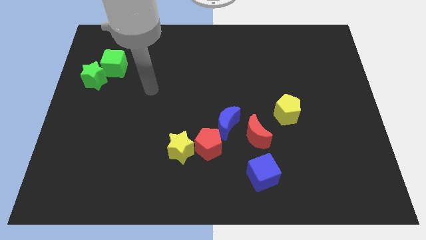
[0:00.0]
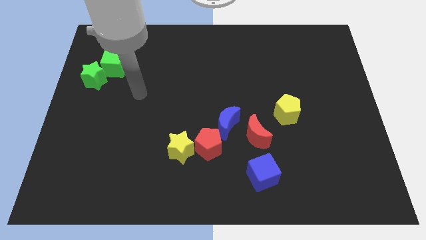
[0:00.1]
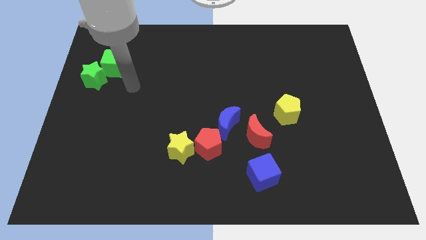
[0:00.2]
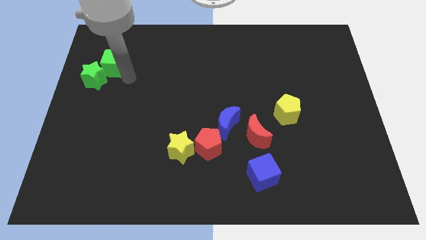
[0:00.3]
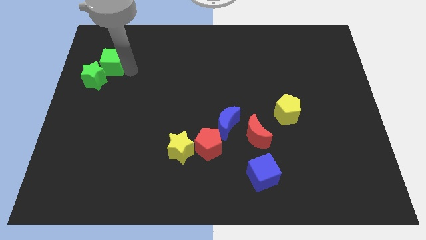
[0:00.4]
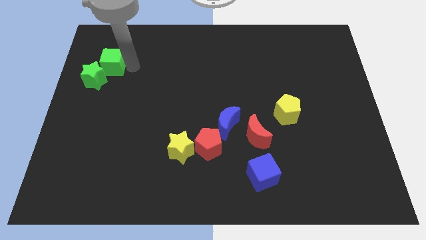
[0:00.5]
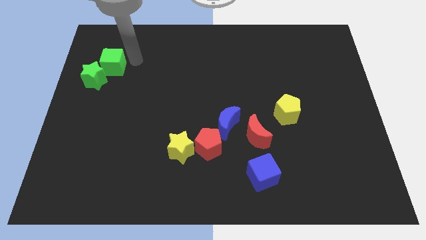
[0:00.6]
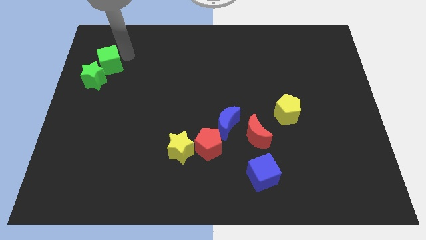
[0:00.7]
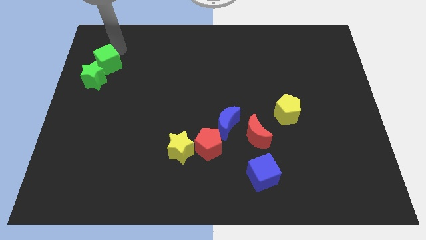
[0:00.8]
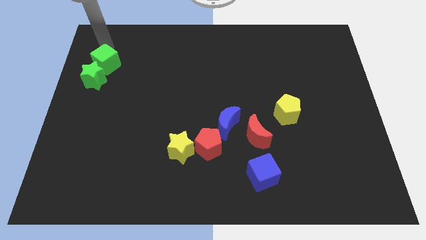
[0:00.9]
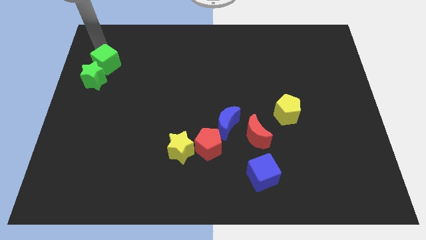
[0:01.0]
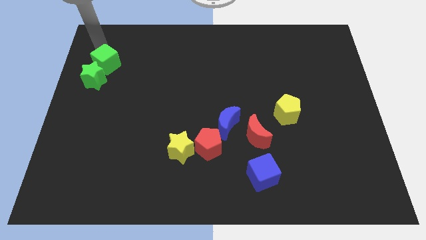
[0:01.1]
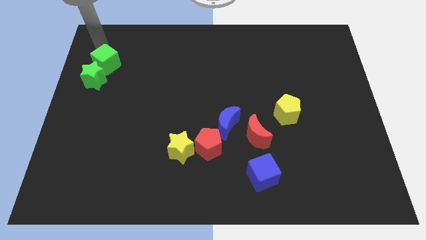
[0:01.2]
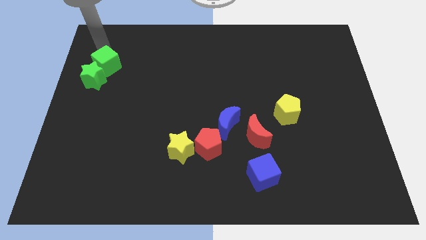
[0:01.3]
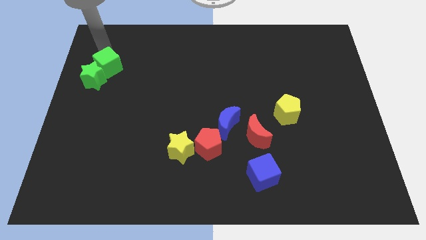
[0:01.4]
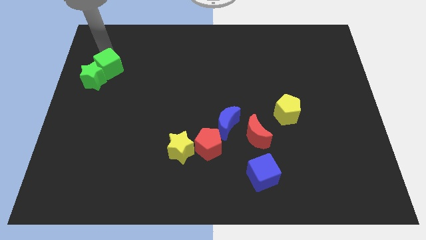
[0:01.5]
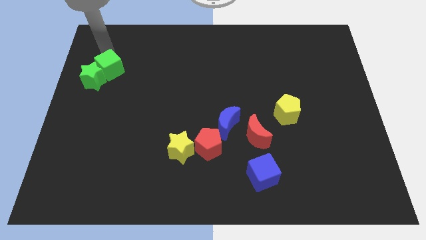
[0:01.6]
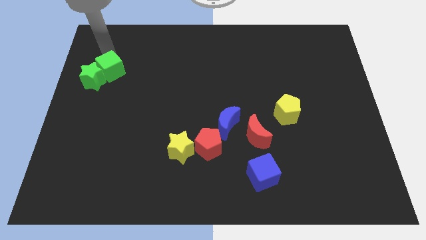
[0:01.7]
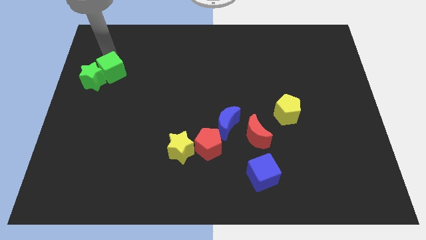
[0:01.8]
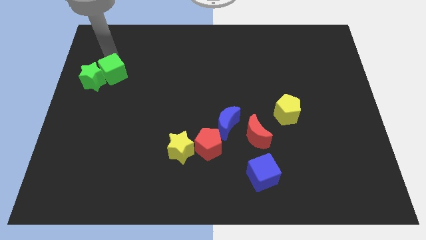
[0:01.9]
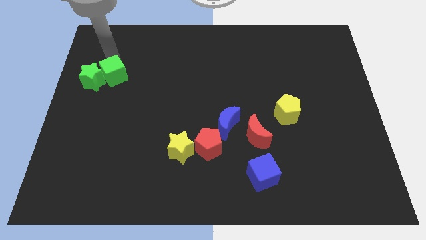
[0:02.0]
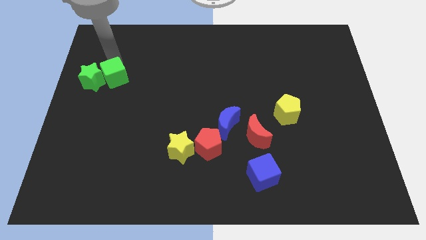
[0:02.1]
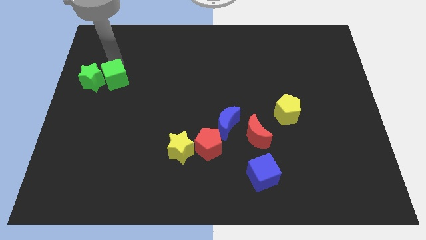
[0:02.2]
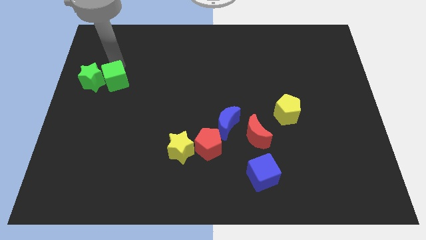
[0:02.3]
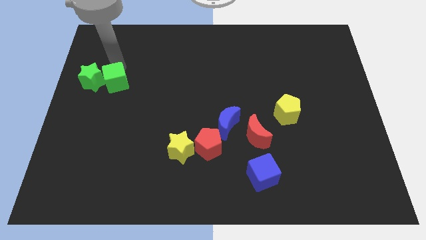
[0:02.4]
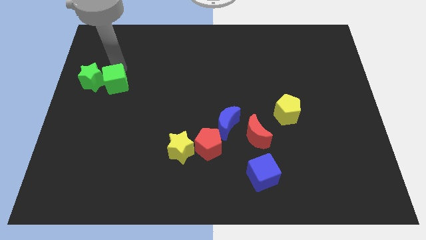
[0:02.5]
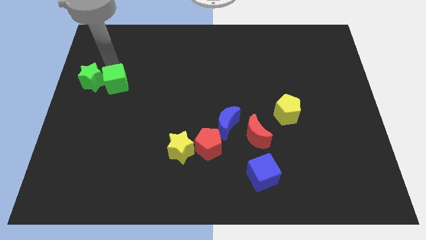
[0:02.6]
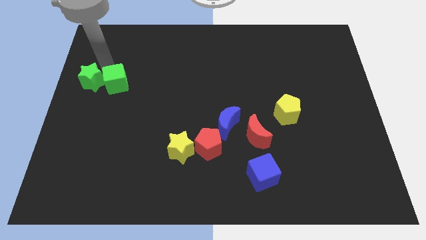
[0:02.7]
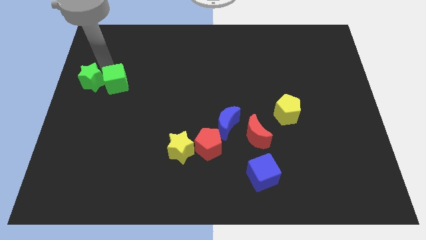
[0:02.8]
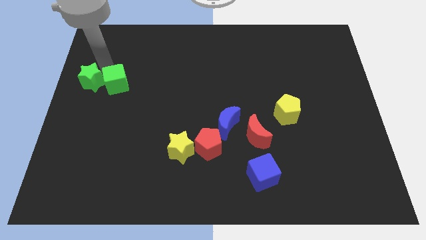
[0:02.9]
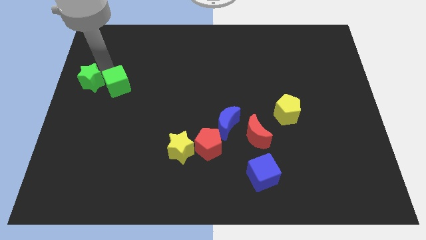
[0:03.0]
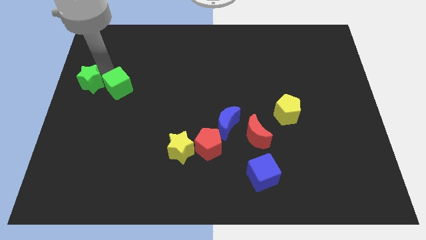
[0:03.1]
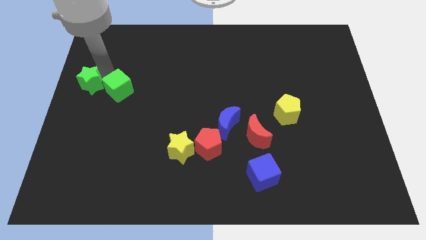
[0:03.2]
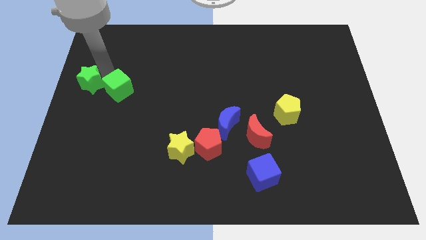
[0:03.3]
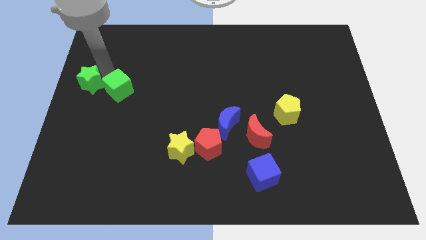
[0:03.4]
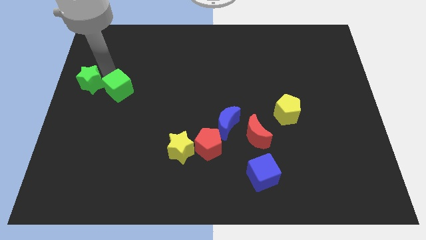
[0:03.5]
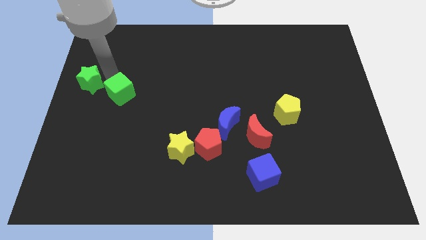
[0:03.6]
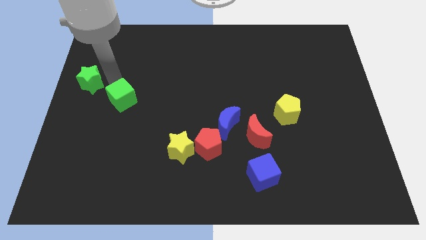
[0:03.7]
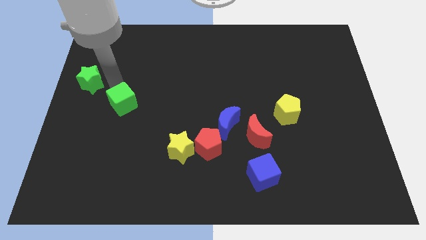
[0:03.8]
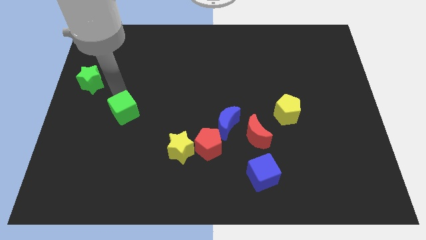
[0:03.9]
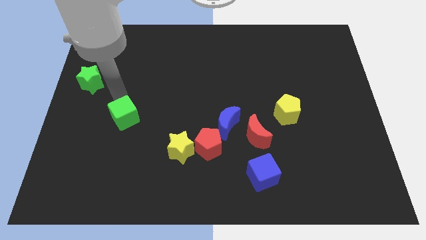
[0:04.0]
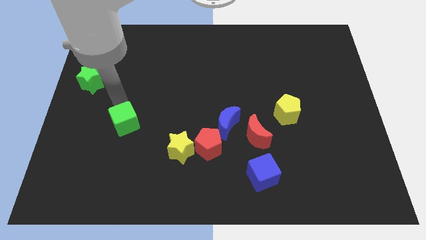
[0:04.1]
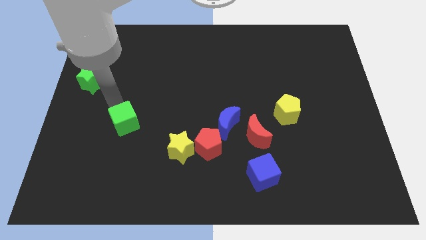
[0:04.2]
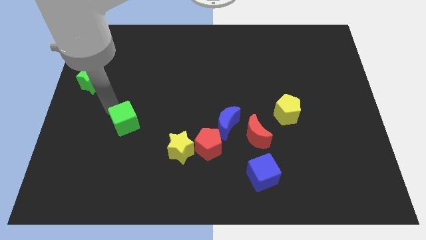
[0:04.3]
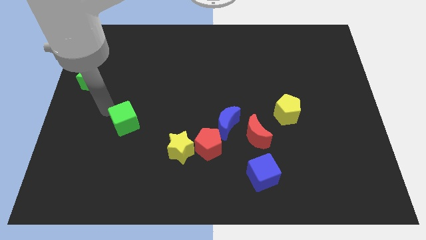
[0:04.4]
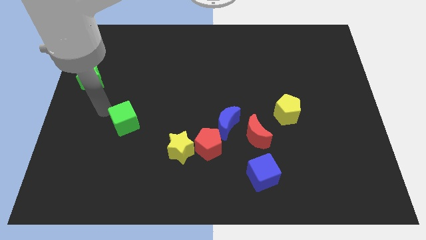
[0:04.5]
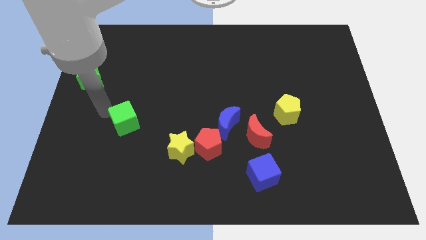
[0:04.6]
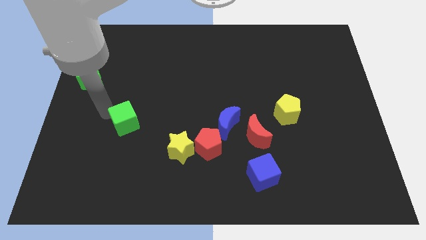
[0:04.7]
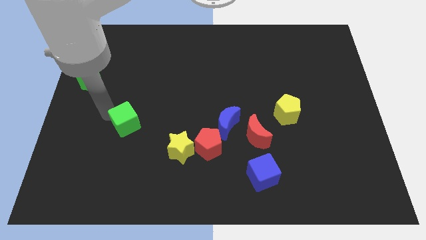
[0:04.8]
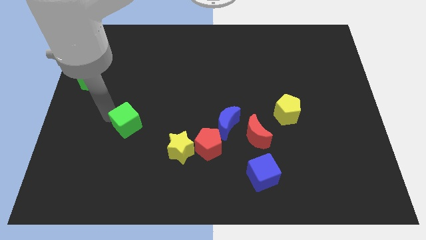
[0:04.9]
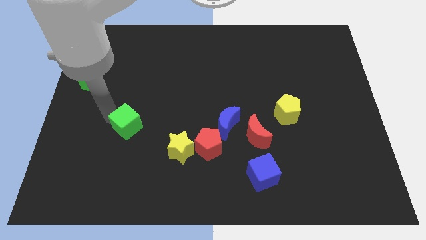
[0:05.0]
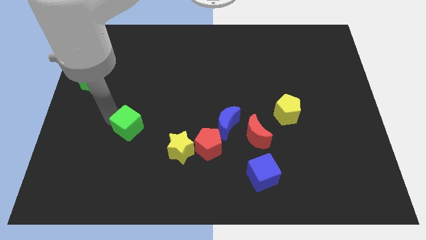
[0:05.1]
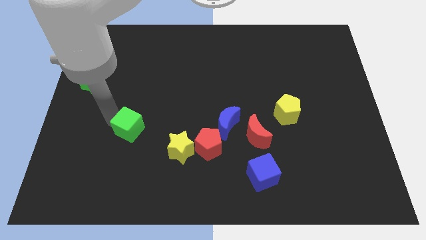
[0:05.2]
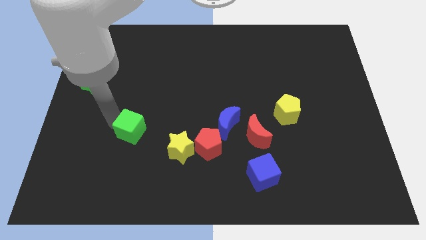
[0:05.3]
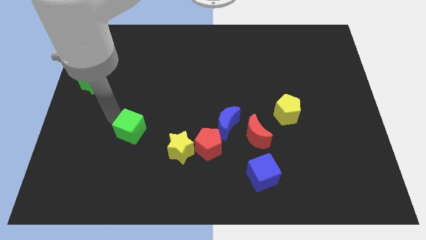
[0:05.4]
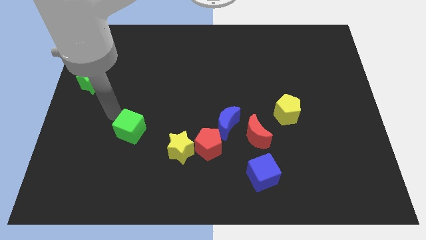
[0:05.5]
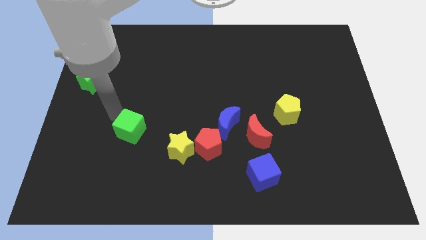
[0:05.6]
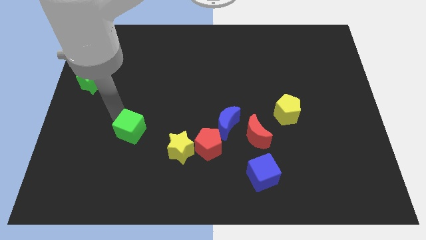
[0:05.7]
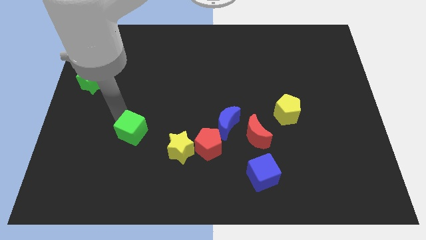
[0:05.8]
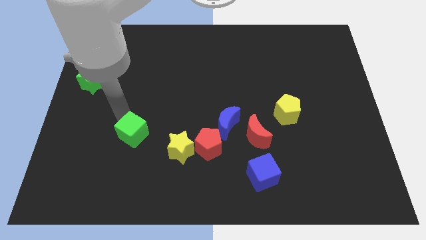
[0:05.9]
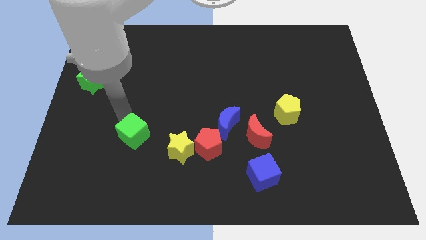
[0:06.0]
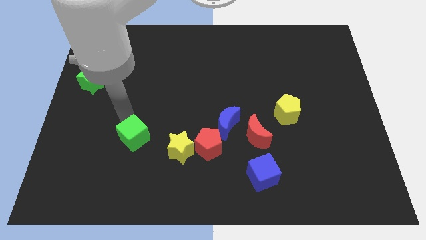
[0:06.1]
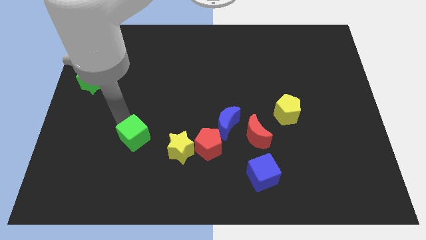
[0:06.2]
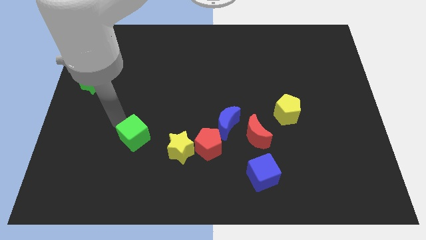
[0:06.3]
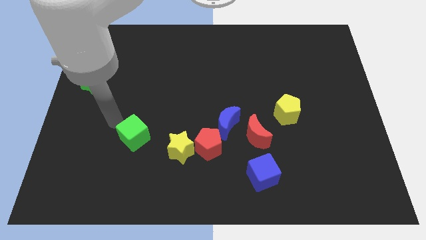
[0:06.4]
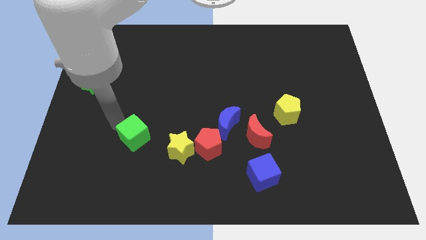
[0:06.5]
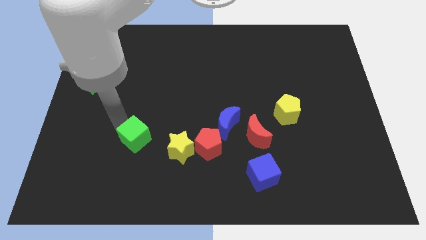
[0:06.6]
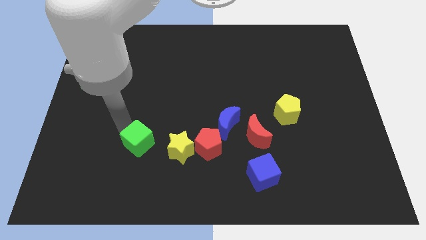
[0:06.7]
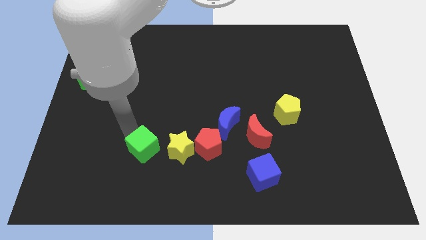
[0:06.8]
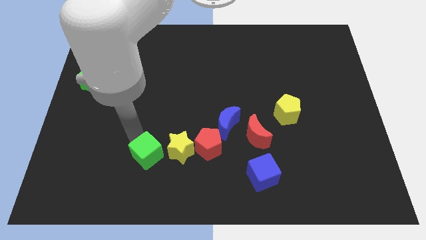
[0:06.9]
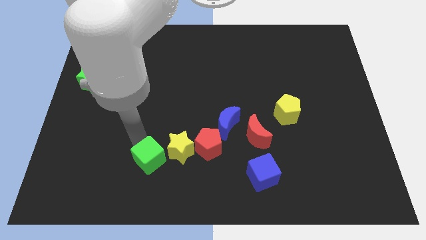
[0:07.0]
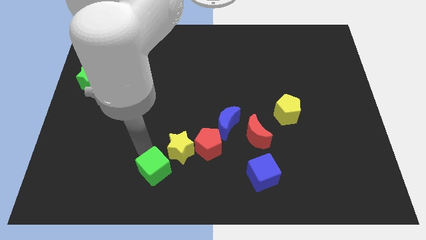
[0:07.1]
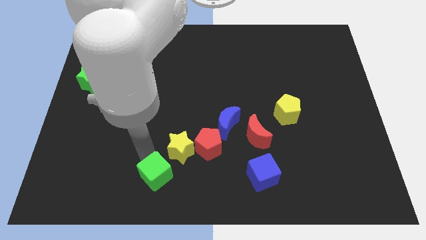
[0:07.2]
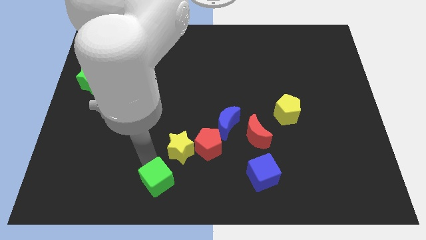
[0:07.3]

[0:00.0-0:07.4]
move the green cube to the bottom
